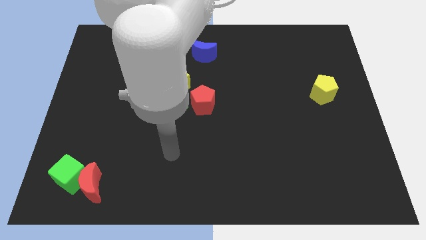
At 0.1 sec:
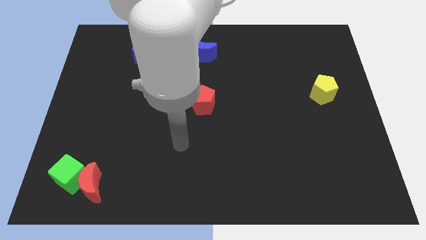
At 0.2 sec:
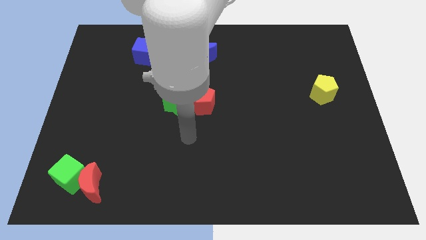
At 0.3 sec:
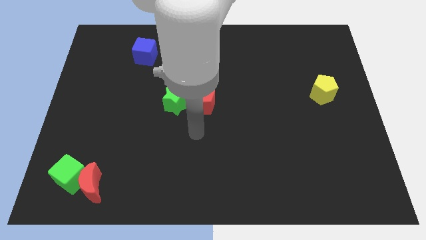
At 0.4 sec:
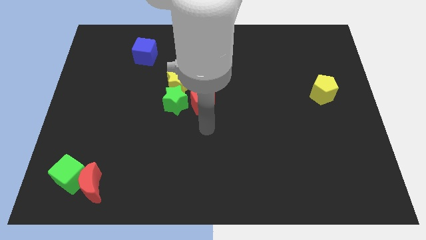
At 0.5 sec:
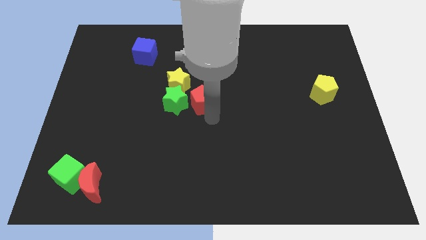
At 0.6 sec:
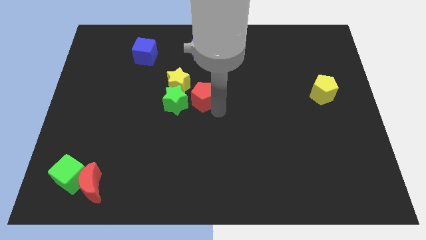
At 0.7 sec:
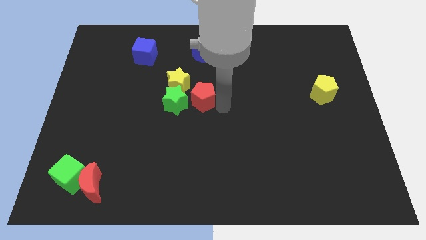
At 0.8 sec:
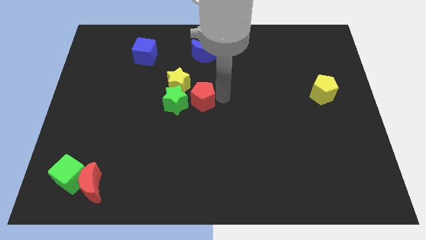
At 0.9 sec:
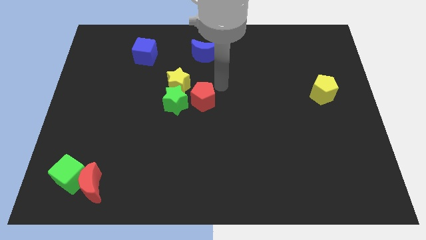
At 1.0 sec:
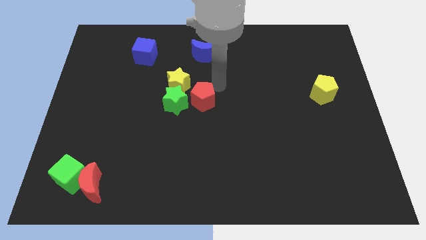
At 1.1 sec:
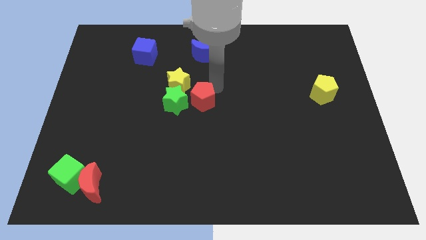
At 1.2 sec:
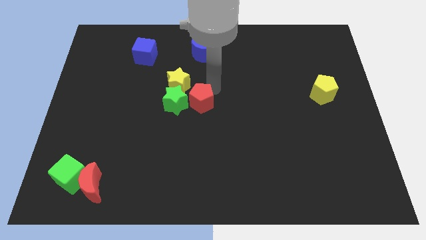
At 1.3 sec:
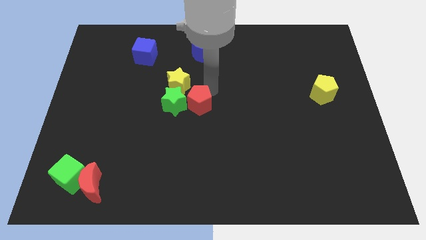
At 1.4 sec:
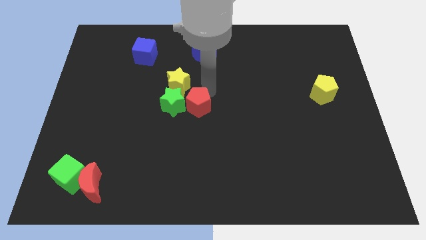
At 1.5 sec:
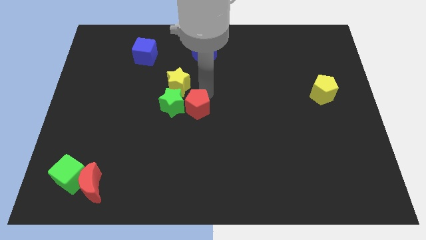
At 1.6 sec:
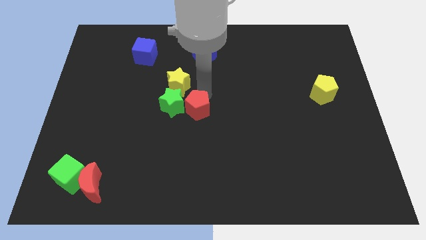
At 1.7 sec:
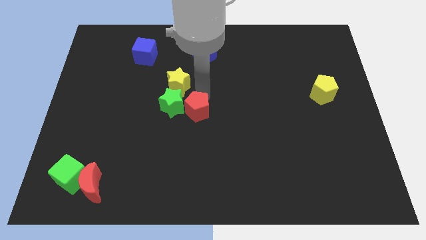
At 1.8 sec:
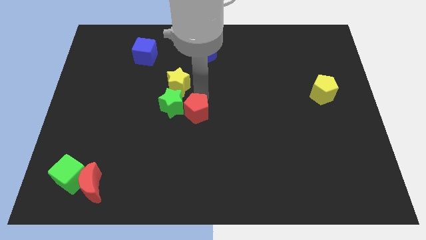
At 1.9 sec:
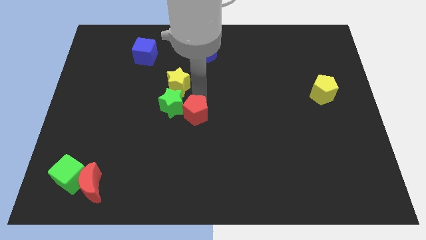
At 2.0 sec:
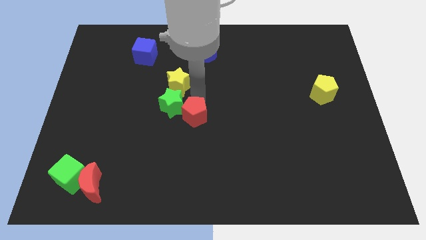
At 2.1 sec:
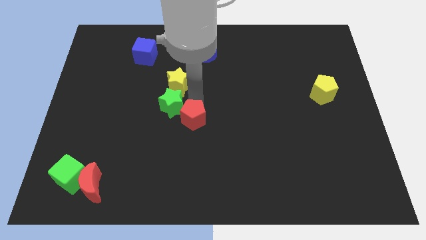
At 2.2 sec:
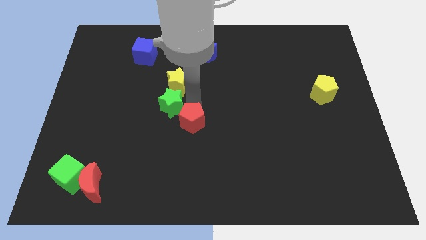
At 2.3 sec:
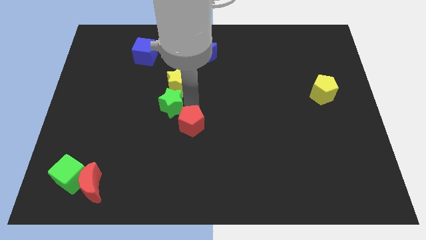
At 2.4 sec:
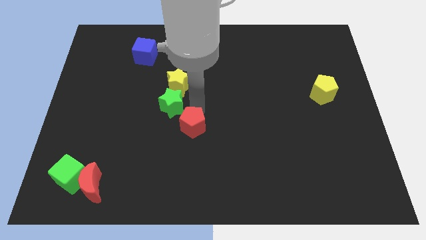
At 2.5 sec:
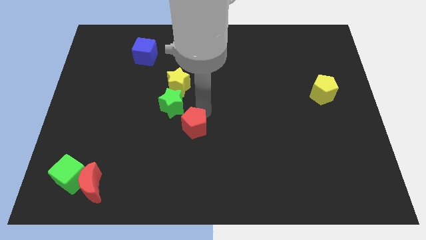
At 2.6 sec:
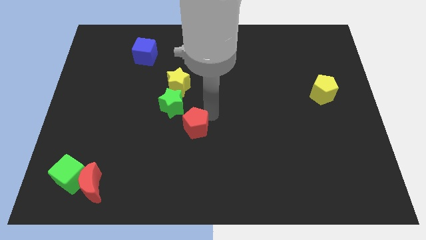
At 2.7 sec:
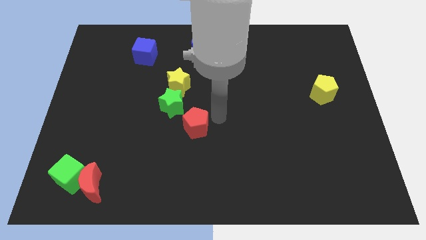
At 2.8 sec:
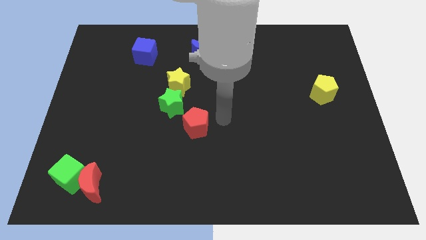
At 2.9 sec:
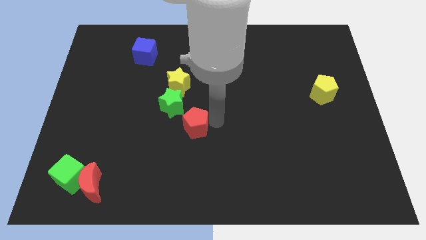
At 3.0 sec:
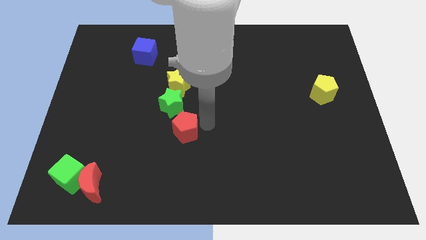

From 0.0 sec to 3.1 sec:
move the red pentagon a little bit diagonally down and left

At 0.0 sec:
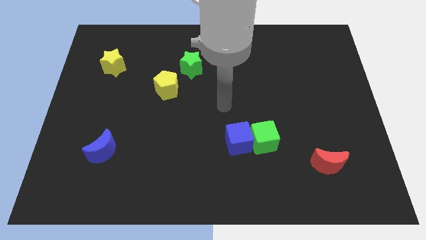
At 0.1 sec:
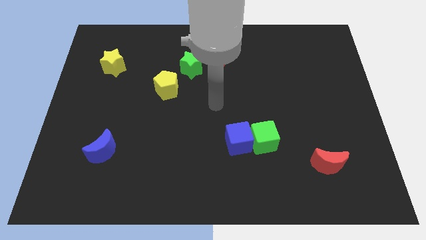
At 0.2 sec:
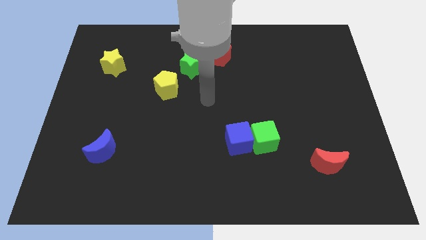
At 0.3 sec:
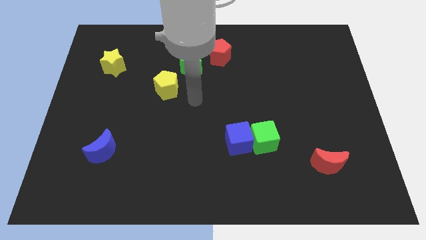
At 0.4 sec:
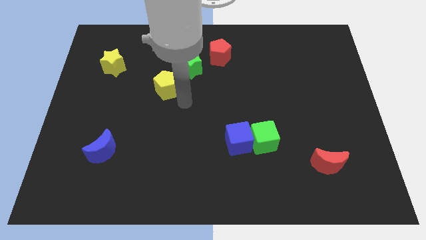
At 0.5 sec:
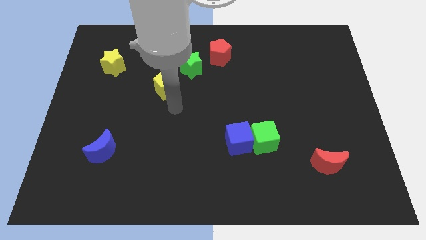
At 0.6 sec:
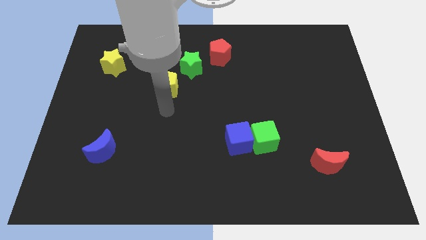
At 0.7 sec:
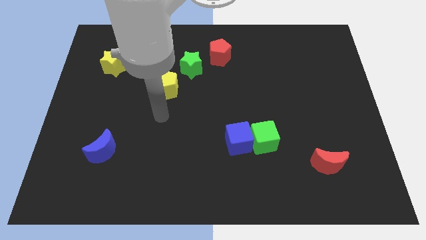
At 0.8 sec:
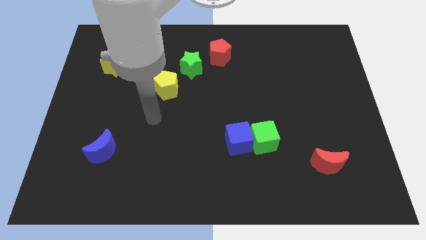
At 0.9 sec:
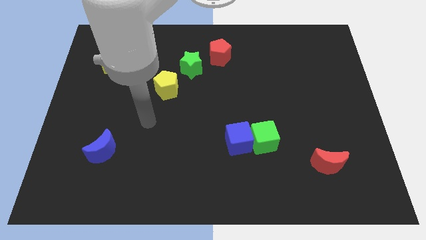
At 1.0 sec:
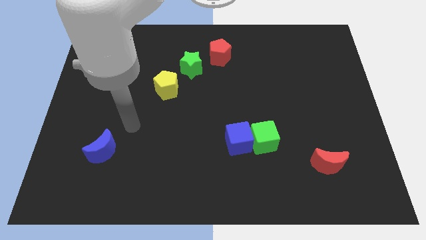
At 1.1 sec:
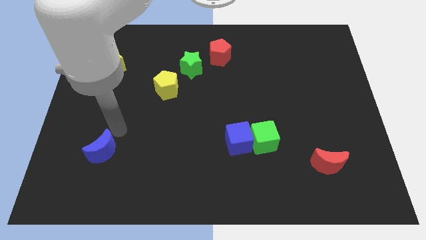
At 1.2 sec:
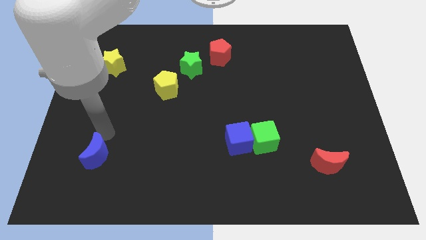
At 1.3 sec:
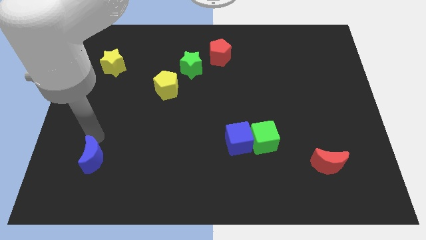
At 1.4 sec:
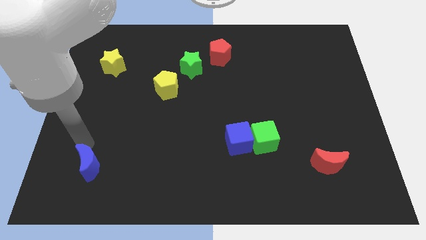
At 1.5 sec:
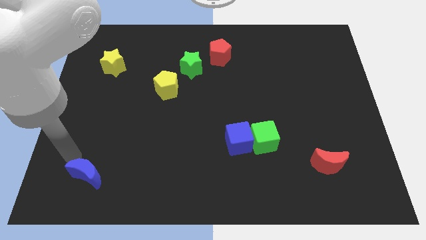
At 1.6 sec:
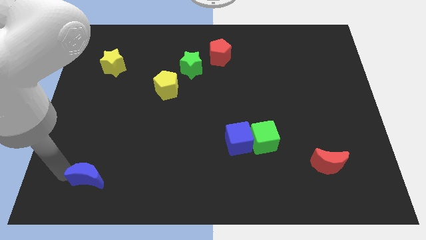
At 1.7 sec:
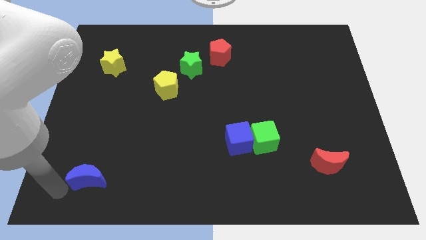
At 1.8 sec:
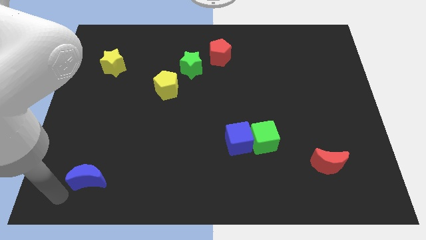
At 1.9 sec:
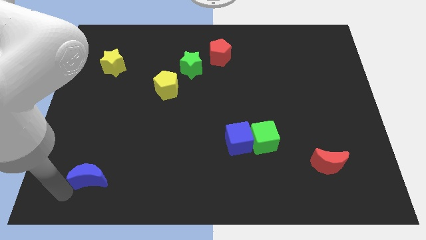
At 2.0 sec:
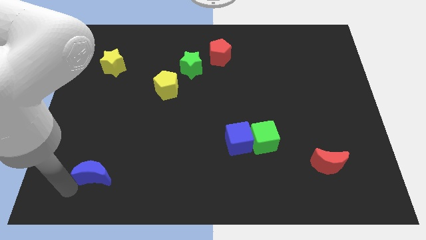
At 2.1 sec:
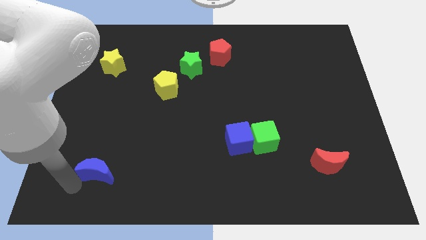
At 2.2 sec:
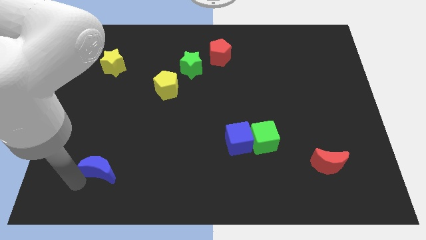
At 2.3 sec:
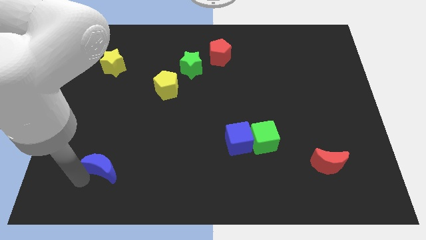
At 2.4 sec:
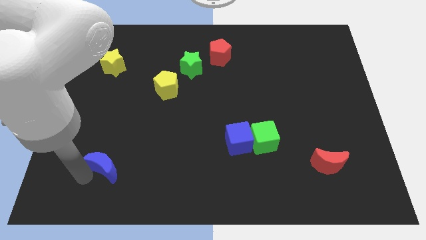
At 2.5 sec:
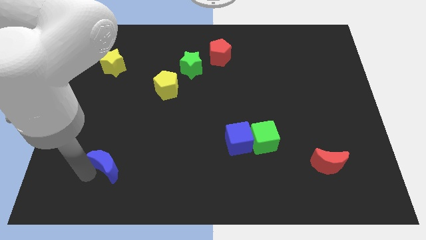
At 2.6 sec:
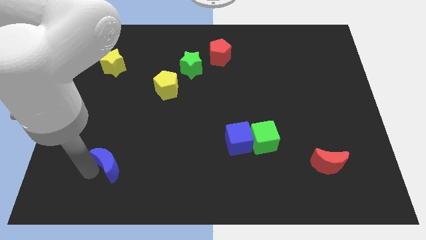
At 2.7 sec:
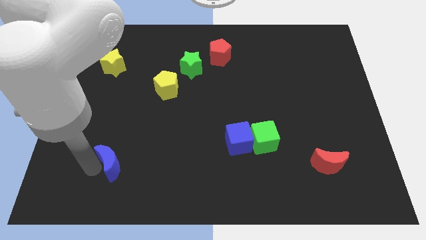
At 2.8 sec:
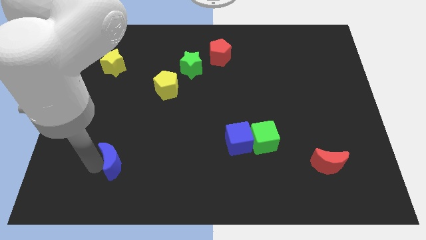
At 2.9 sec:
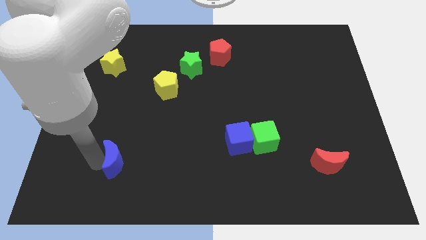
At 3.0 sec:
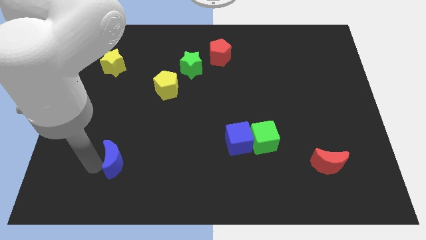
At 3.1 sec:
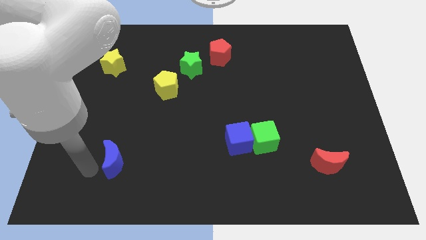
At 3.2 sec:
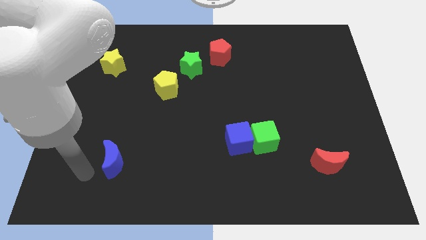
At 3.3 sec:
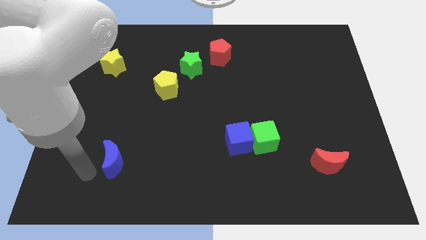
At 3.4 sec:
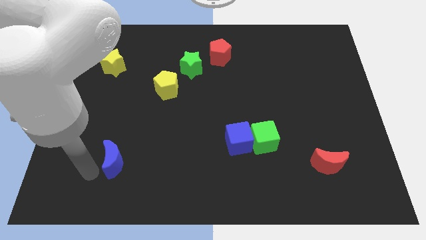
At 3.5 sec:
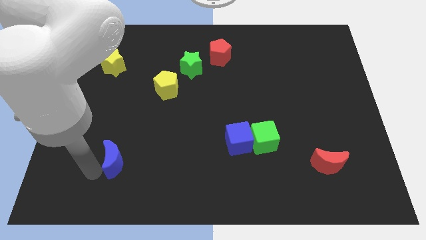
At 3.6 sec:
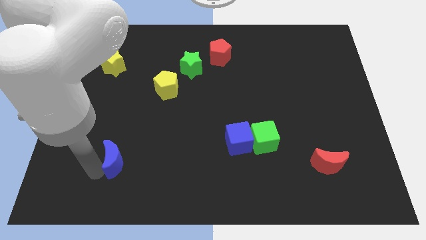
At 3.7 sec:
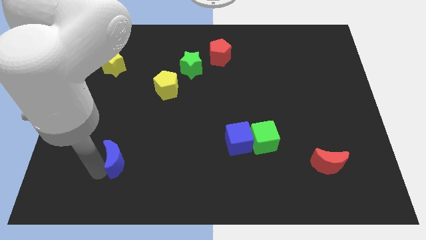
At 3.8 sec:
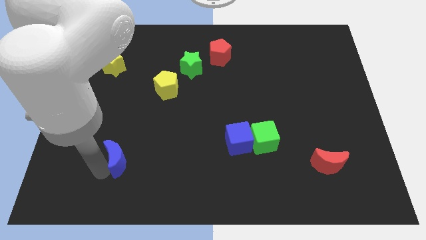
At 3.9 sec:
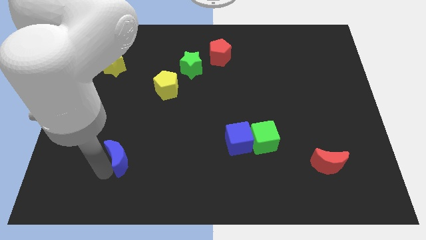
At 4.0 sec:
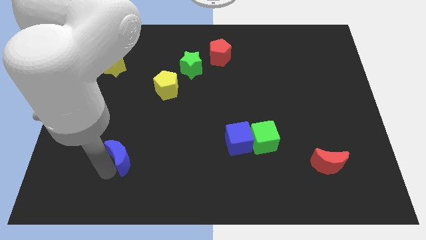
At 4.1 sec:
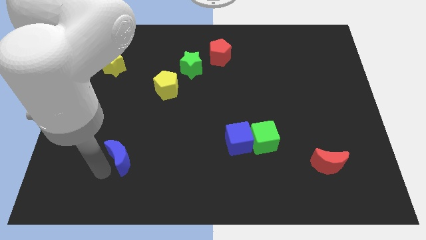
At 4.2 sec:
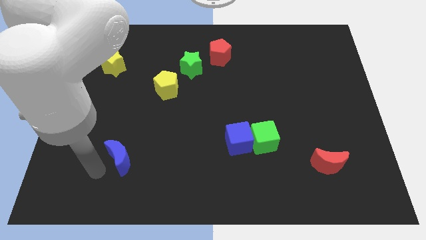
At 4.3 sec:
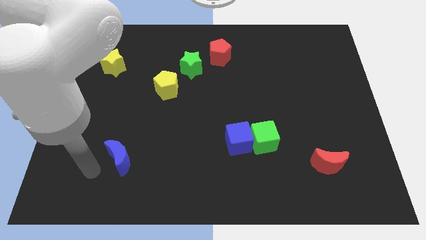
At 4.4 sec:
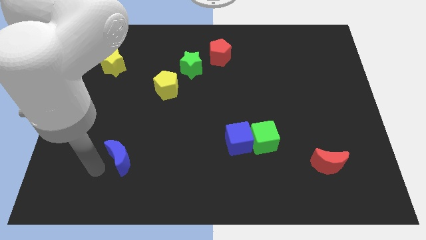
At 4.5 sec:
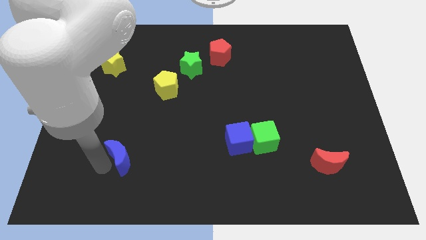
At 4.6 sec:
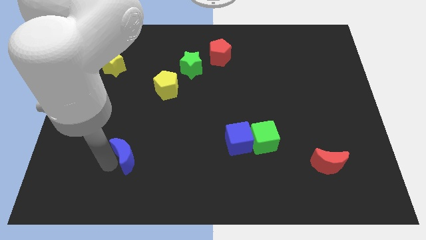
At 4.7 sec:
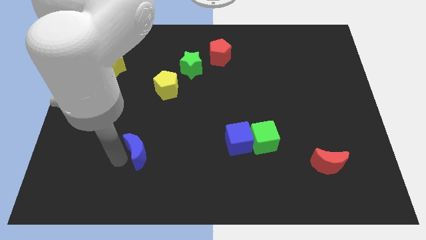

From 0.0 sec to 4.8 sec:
slightly push the blue moon to the right
